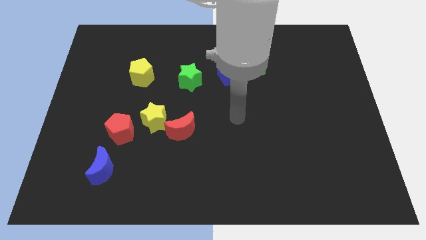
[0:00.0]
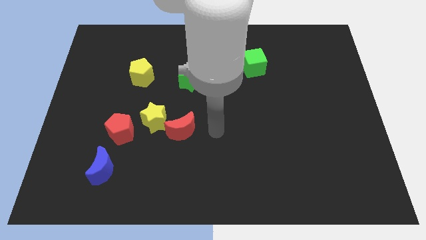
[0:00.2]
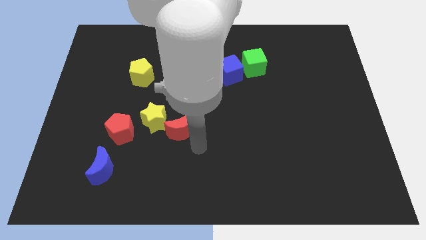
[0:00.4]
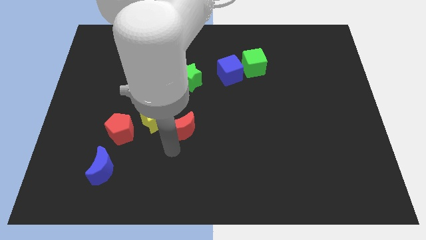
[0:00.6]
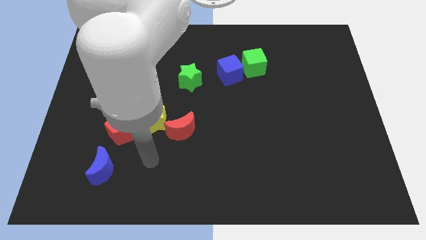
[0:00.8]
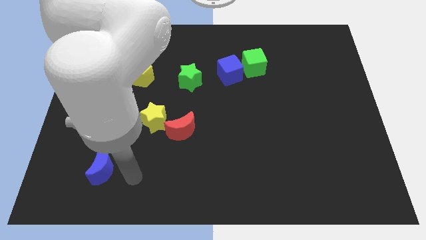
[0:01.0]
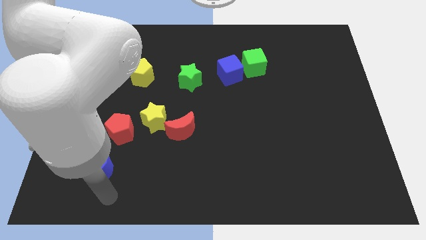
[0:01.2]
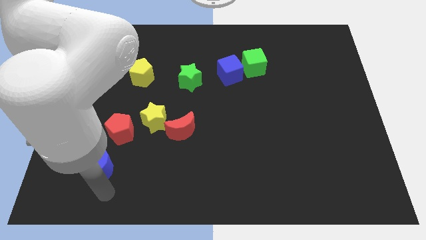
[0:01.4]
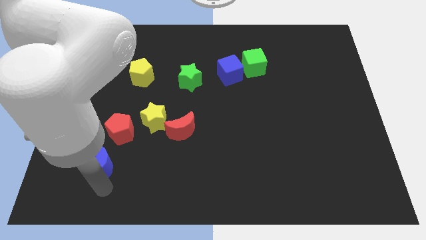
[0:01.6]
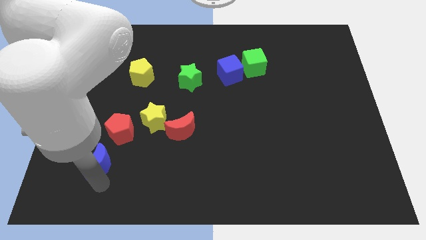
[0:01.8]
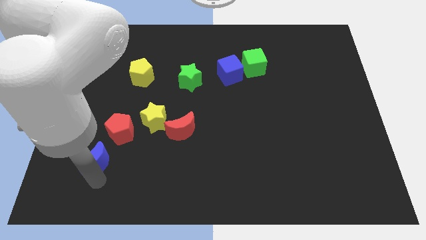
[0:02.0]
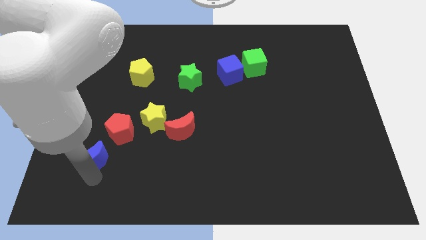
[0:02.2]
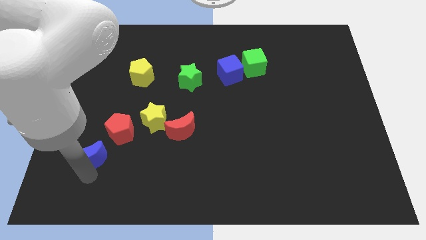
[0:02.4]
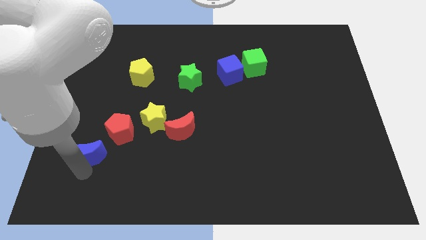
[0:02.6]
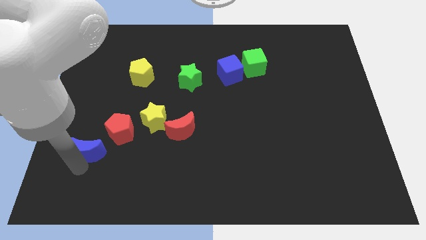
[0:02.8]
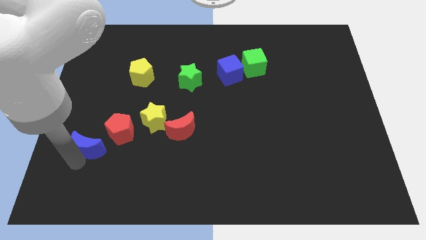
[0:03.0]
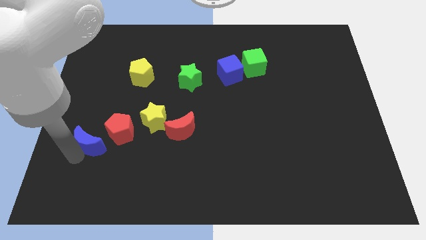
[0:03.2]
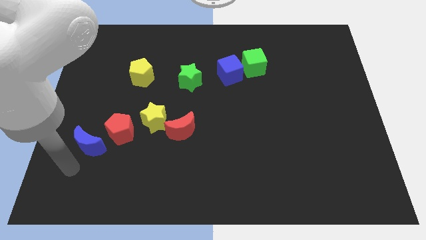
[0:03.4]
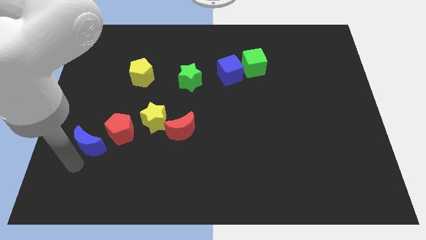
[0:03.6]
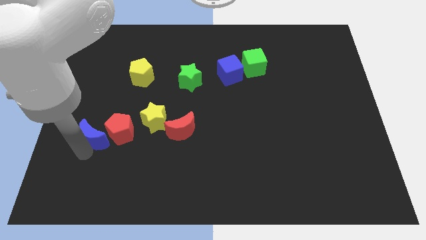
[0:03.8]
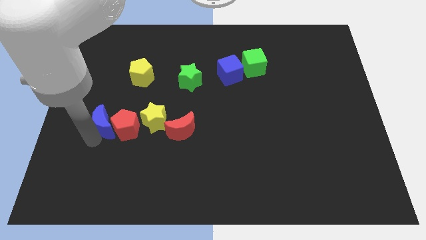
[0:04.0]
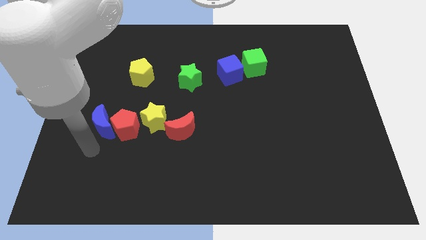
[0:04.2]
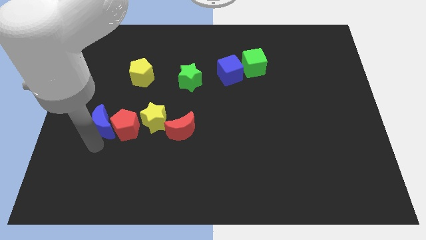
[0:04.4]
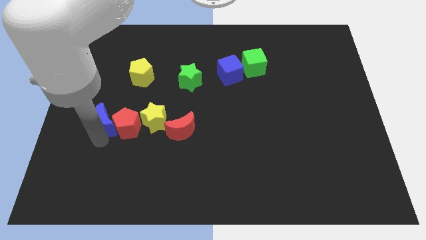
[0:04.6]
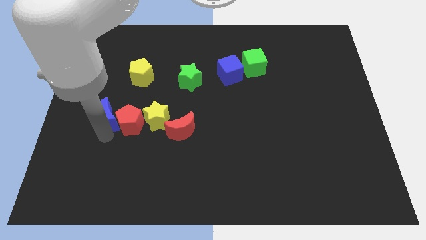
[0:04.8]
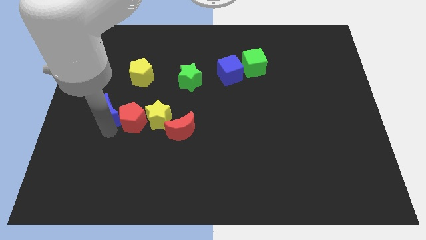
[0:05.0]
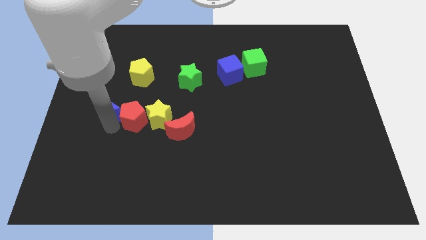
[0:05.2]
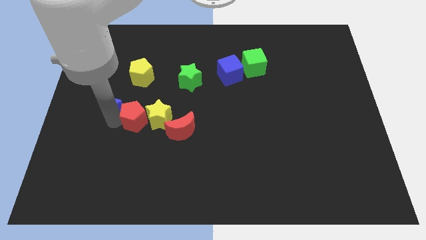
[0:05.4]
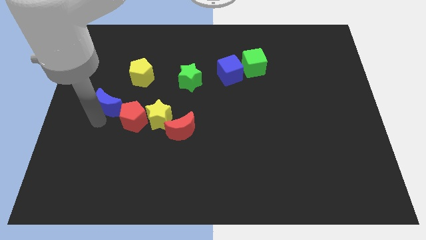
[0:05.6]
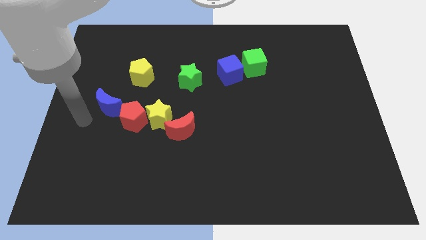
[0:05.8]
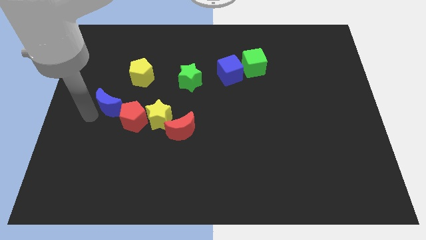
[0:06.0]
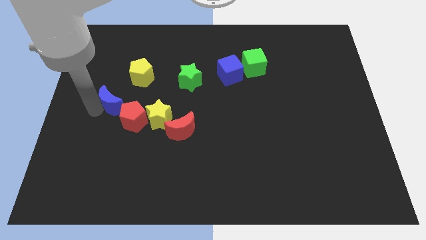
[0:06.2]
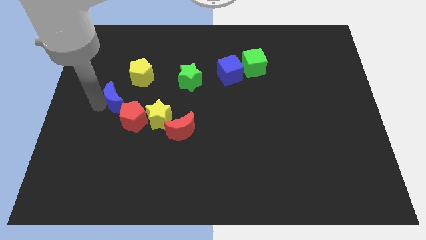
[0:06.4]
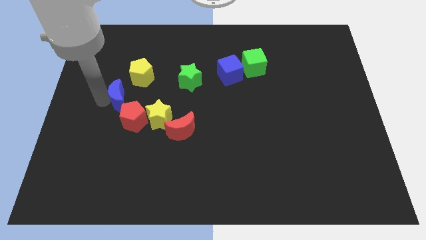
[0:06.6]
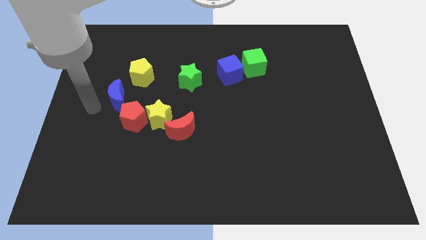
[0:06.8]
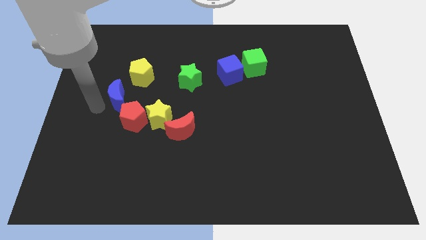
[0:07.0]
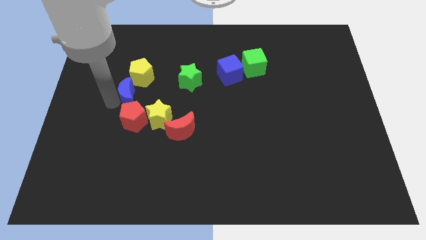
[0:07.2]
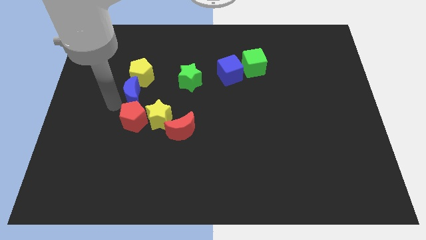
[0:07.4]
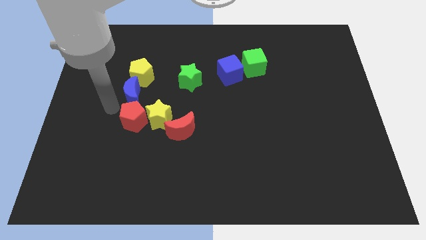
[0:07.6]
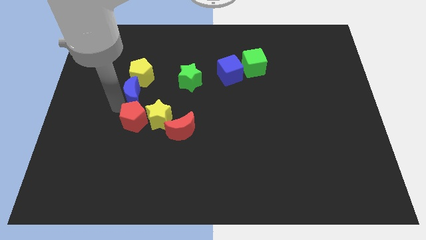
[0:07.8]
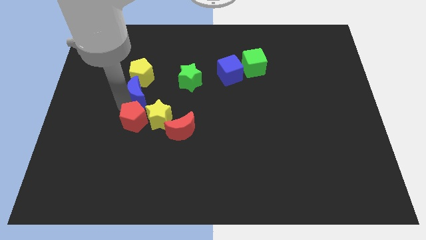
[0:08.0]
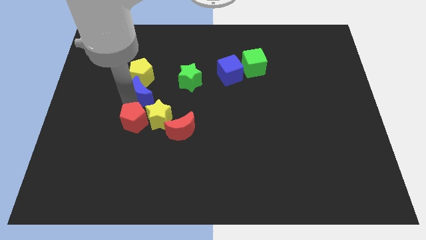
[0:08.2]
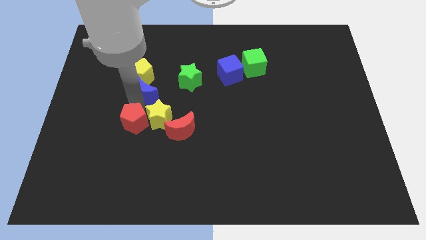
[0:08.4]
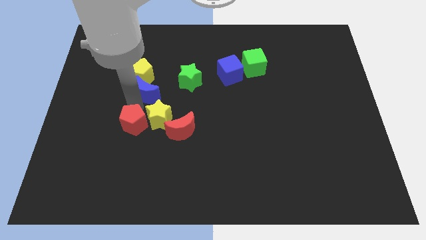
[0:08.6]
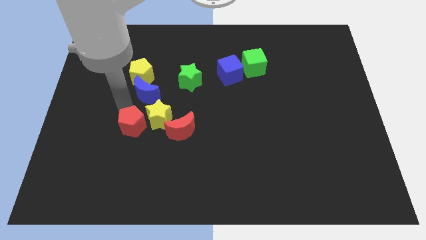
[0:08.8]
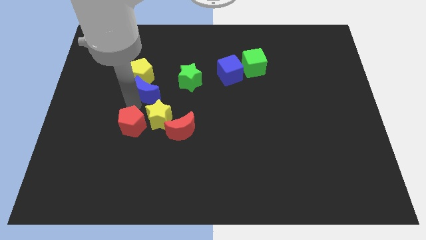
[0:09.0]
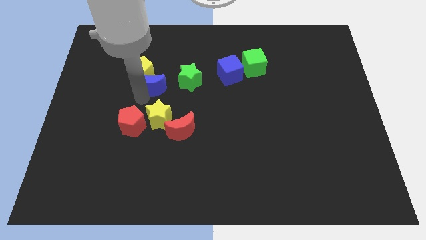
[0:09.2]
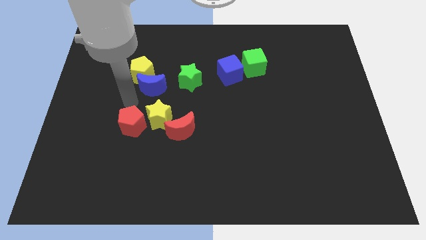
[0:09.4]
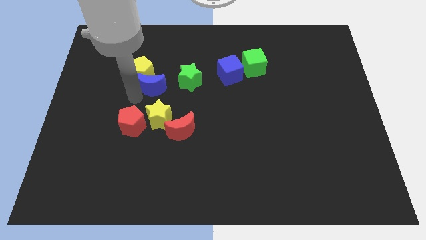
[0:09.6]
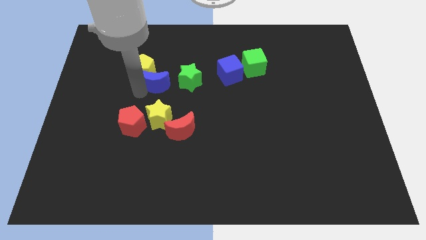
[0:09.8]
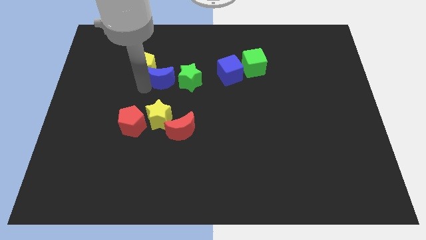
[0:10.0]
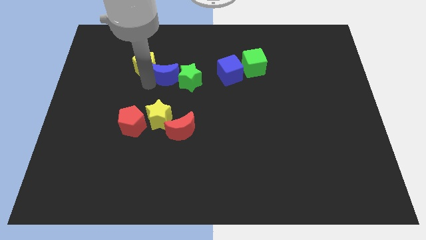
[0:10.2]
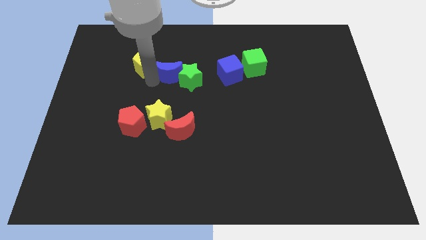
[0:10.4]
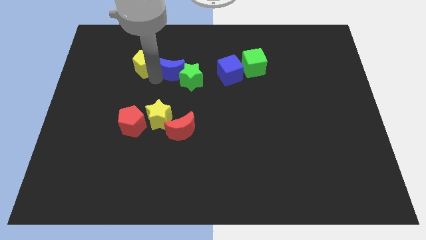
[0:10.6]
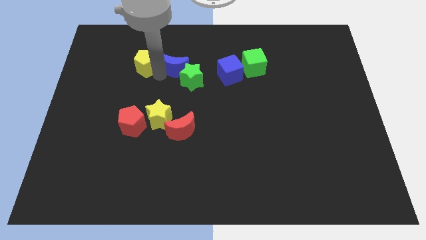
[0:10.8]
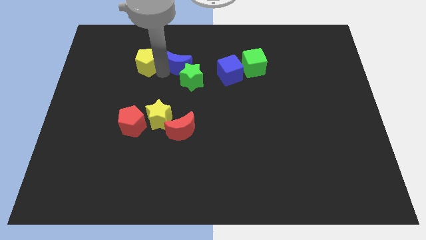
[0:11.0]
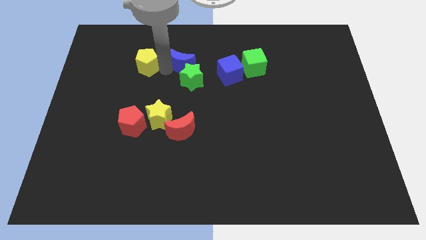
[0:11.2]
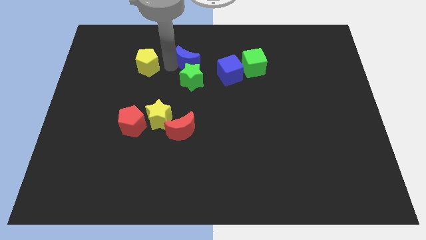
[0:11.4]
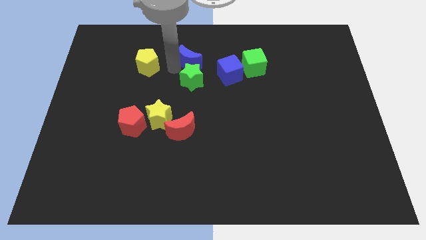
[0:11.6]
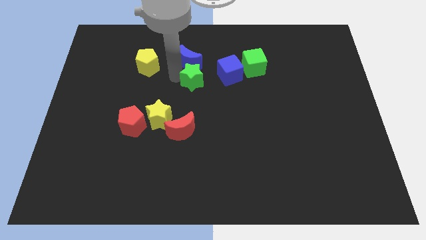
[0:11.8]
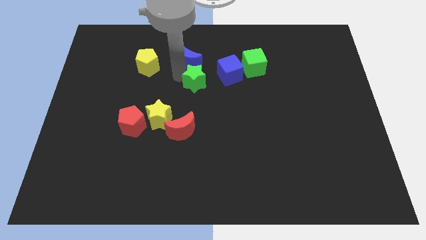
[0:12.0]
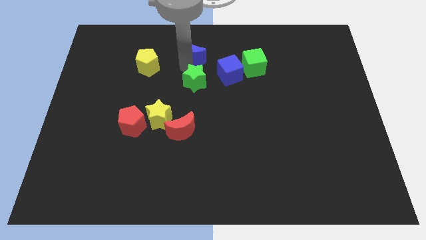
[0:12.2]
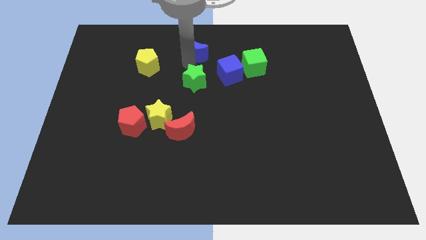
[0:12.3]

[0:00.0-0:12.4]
push the blue moon to the top side
